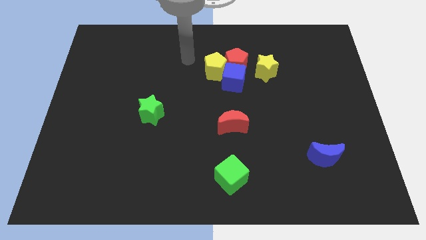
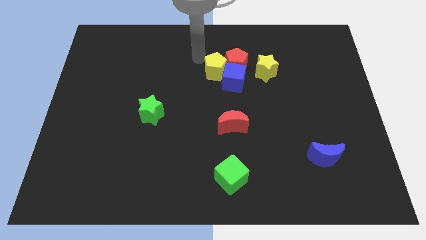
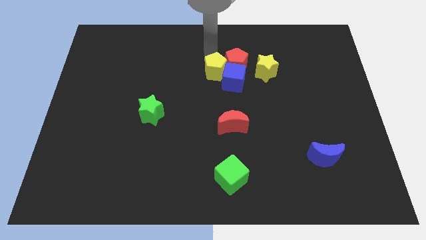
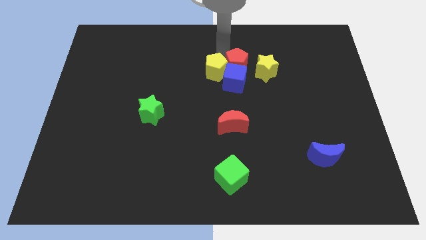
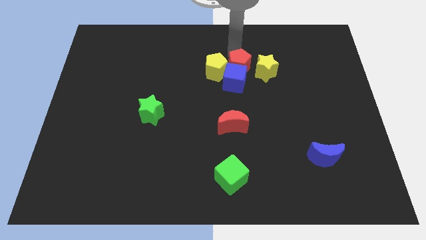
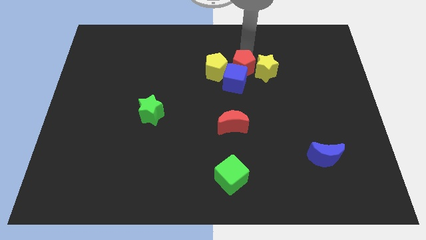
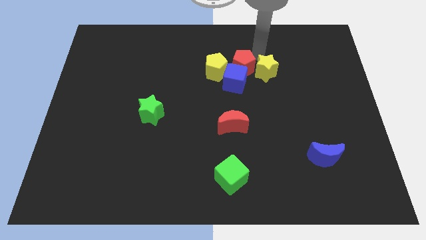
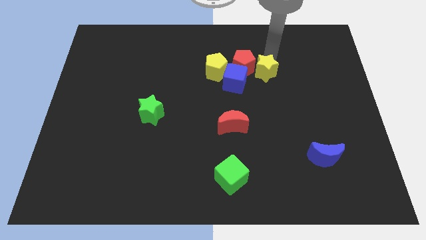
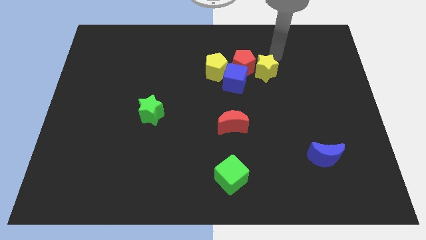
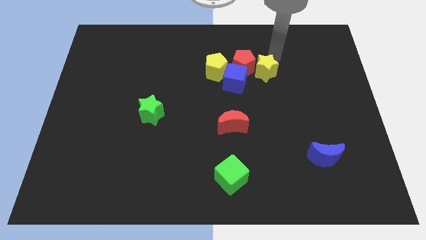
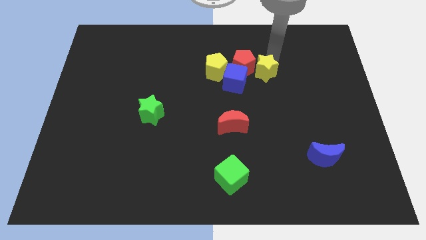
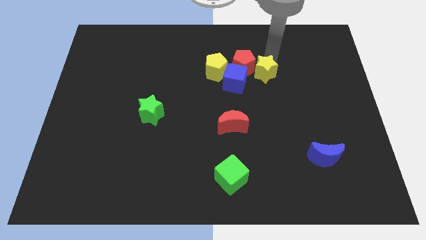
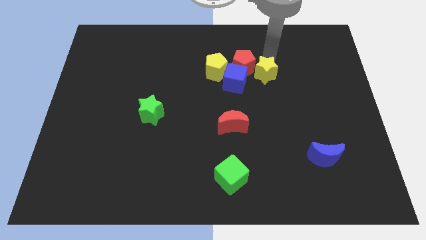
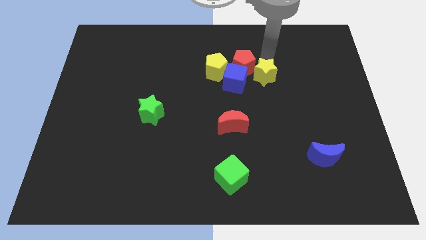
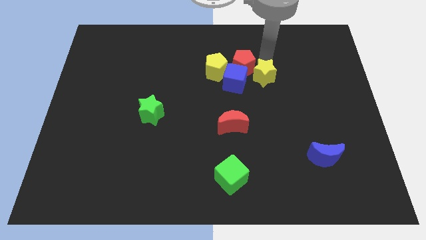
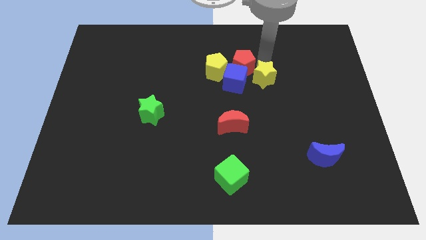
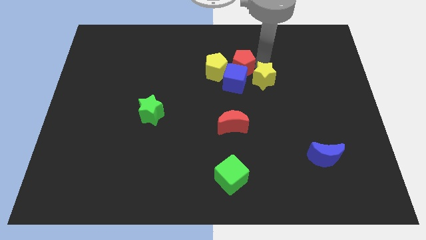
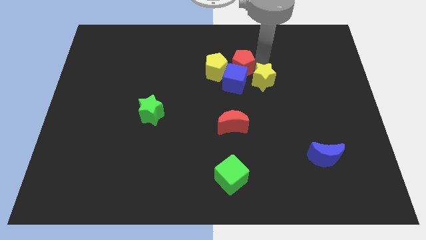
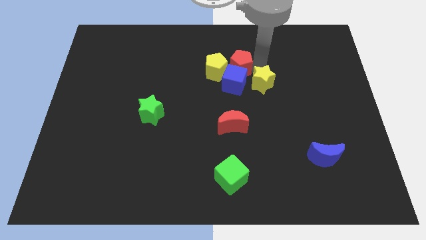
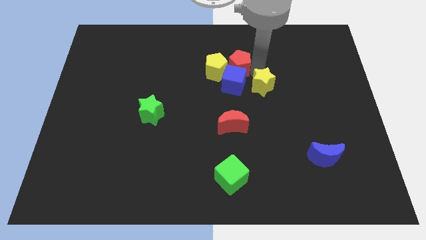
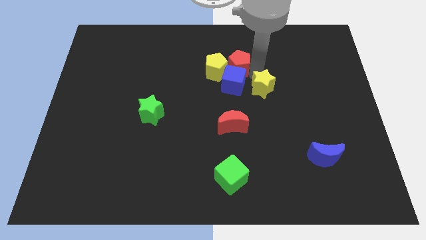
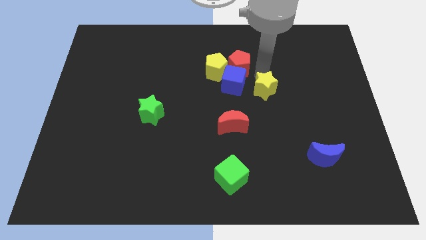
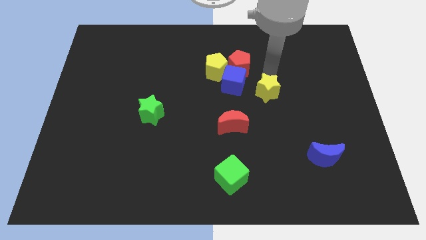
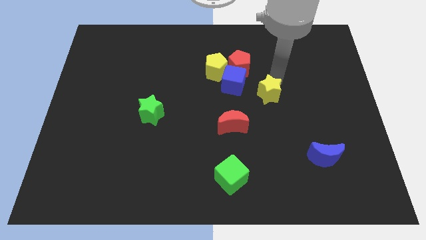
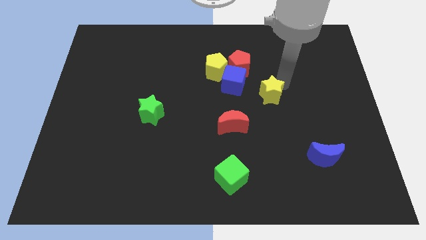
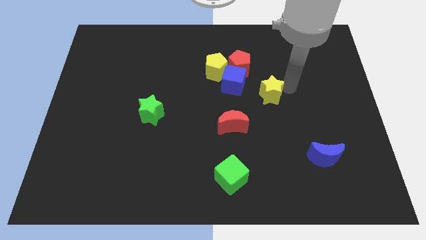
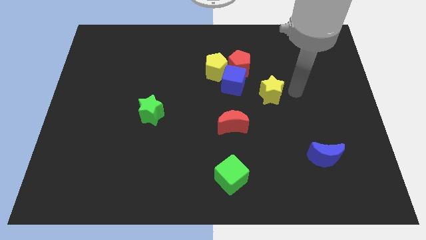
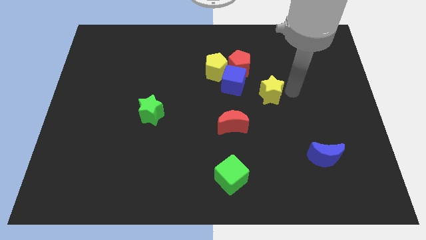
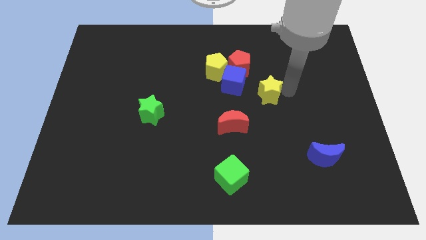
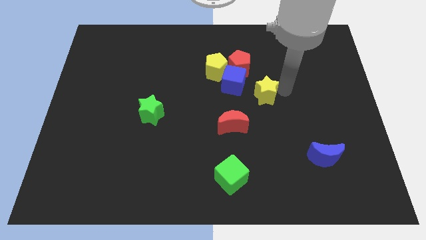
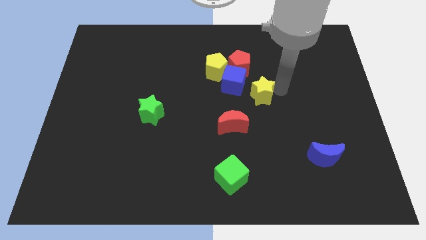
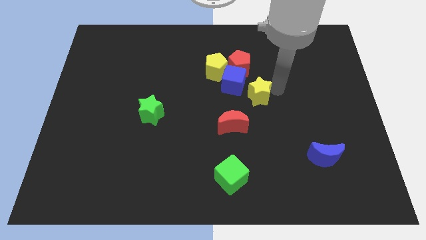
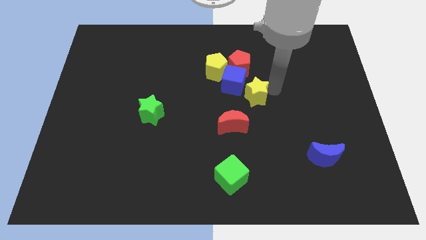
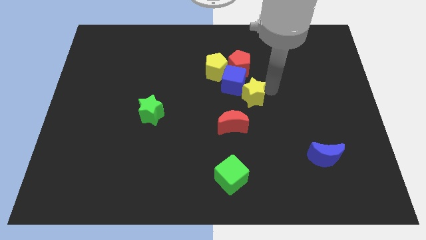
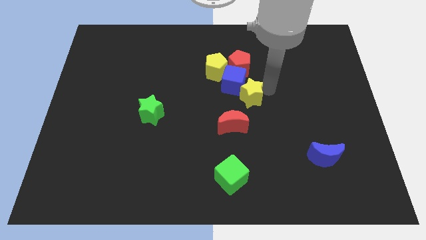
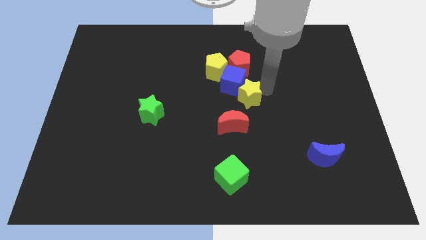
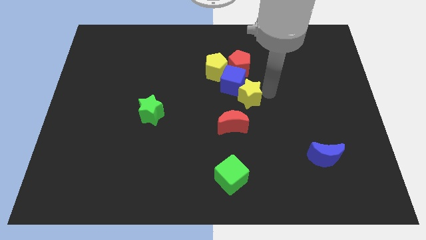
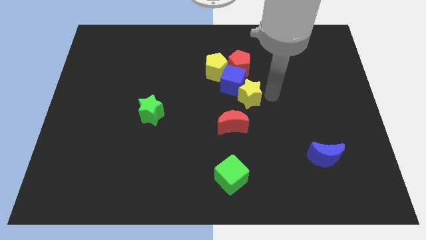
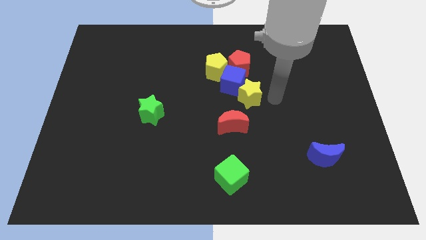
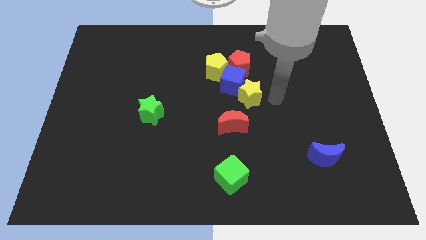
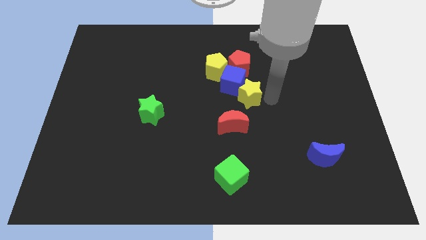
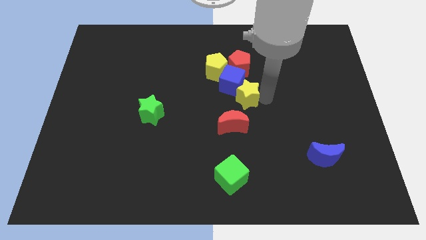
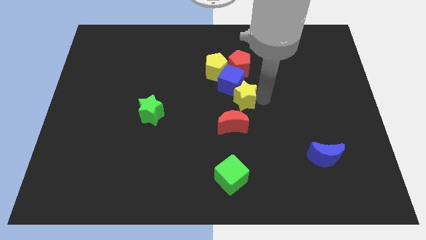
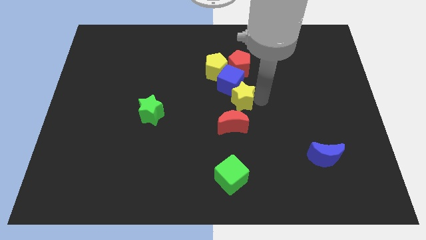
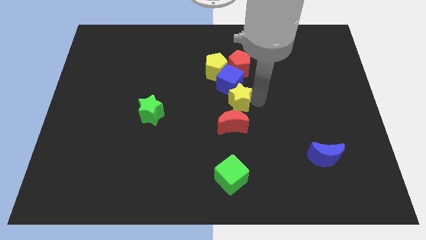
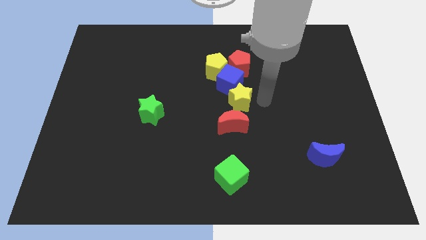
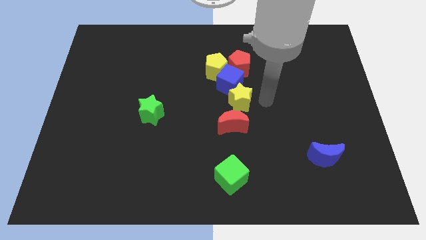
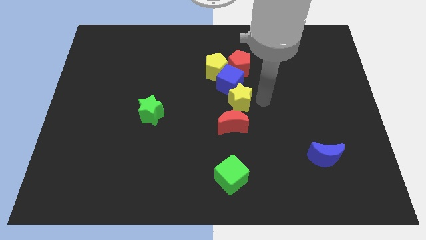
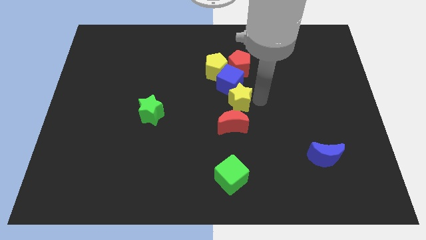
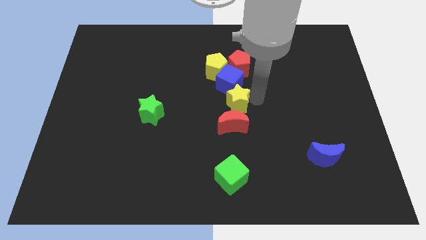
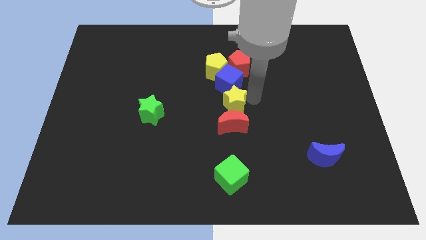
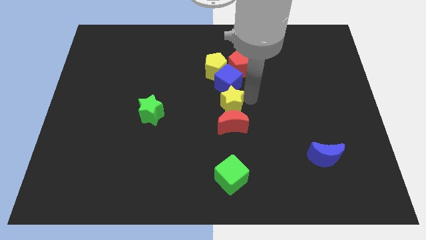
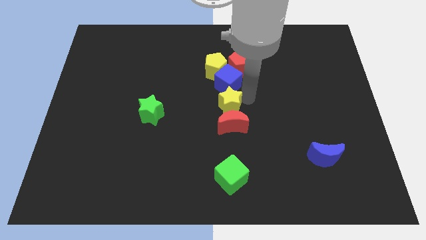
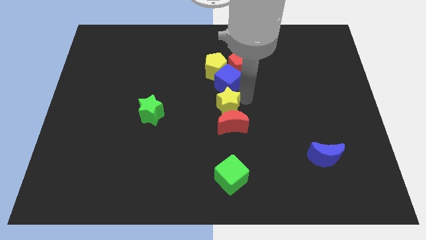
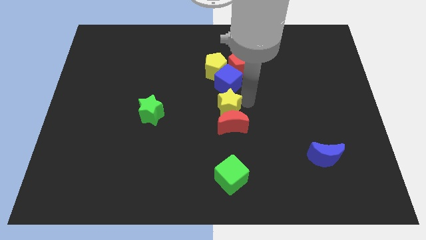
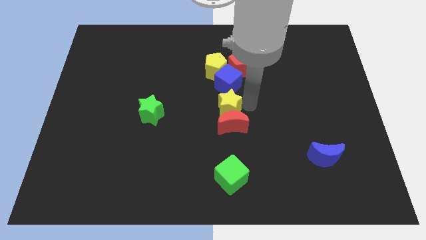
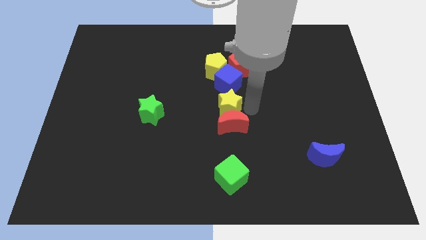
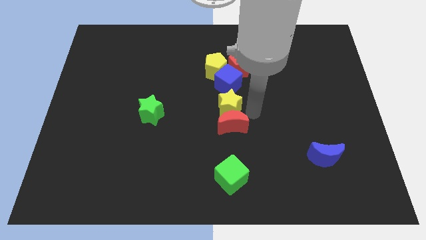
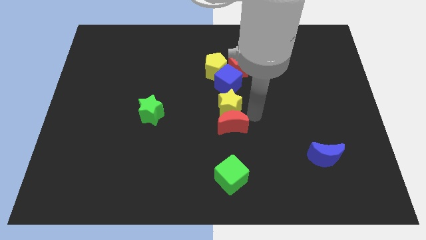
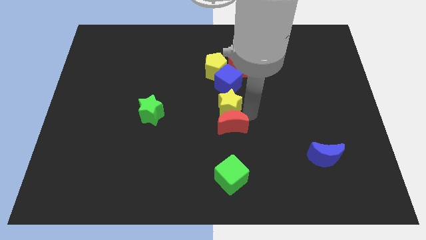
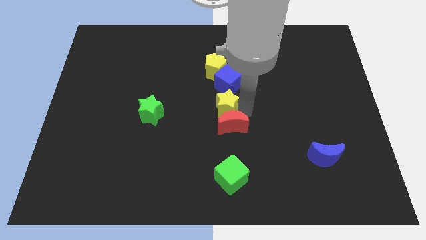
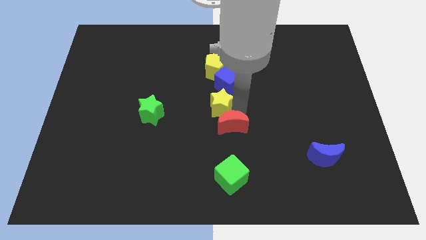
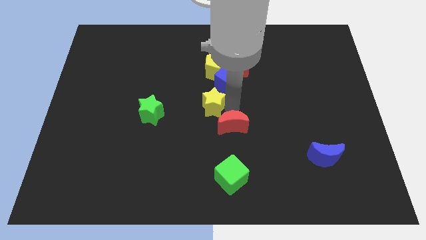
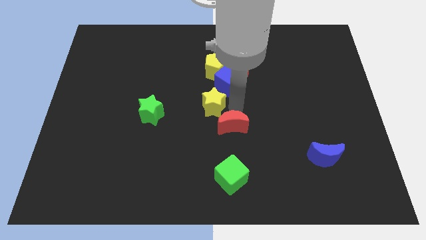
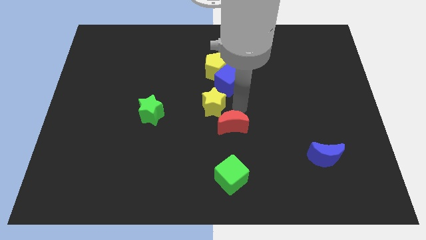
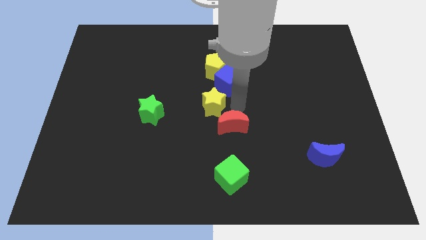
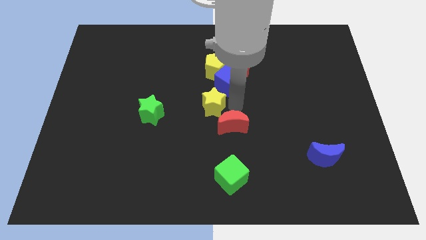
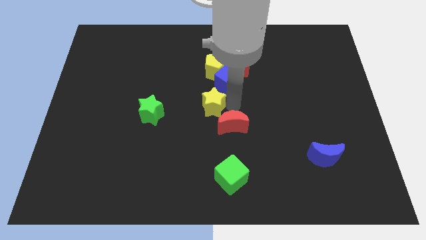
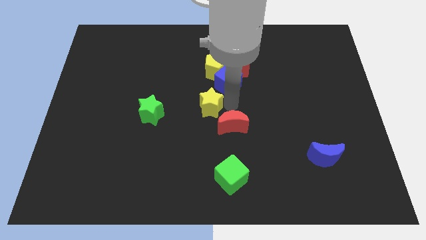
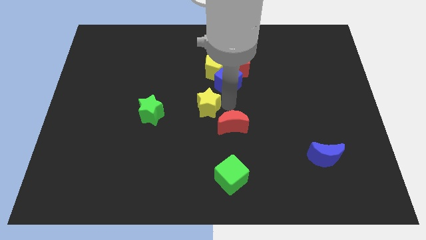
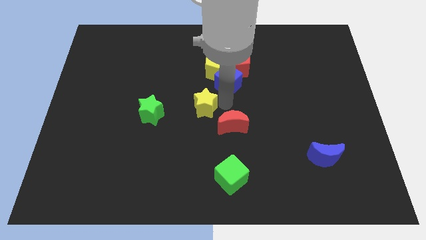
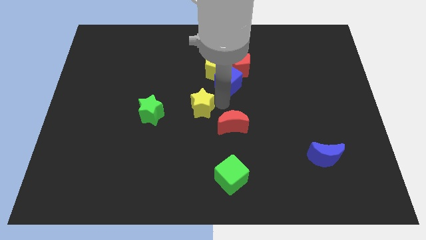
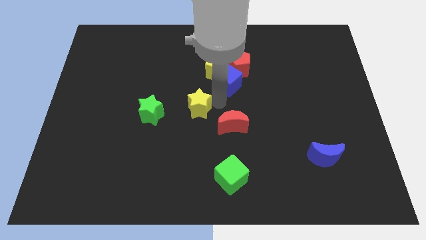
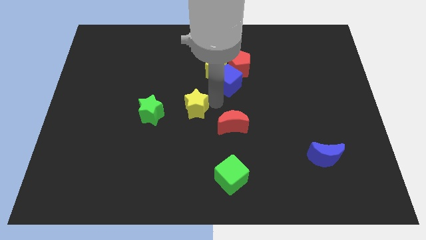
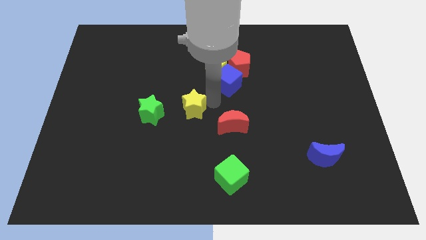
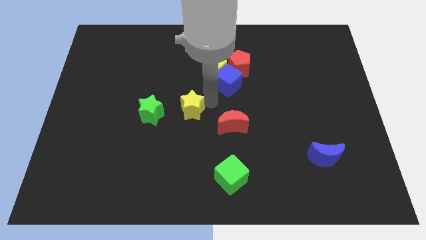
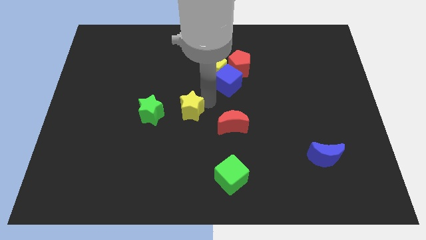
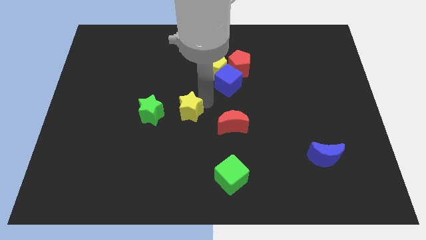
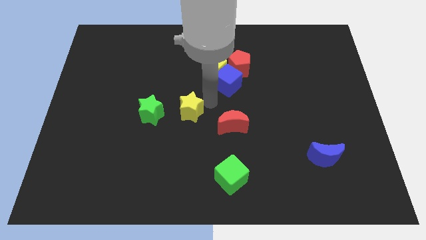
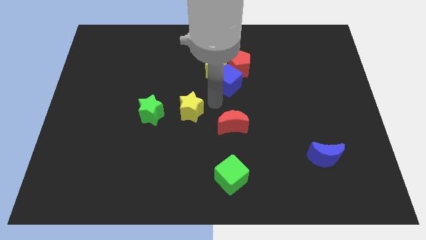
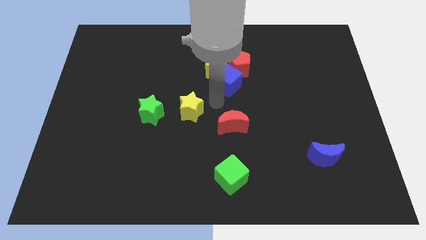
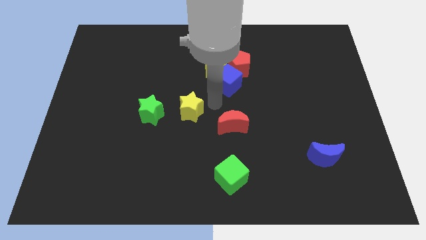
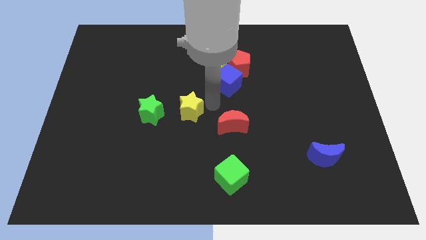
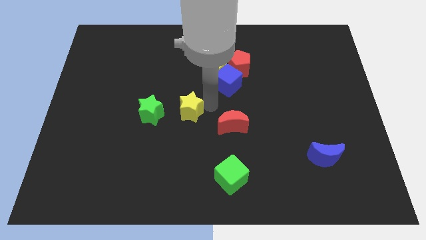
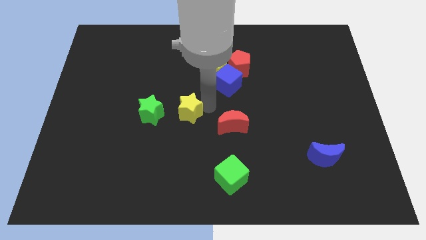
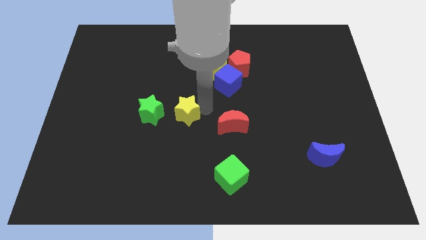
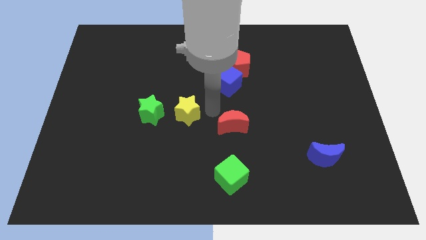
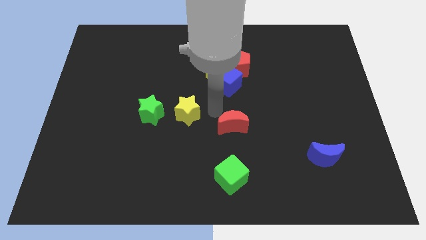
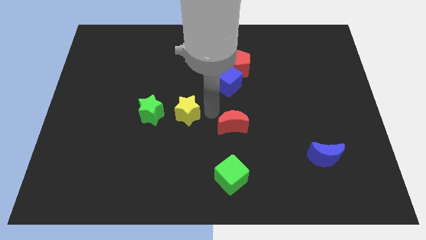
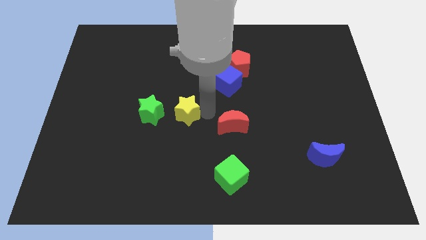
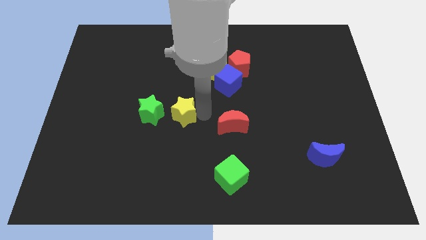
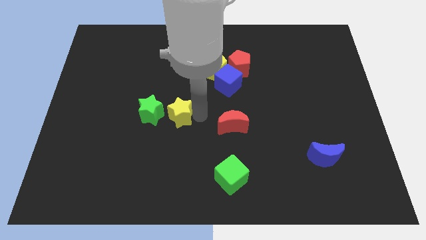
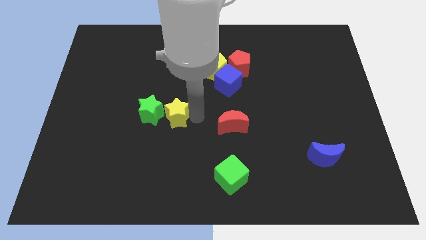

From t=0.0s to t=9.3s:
slide the yellow star next to the green star
